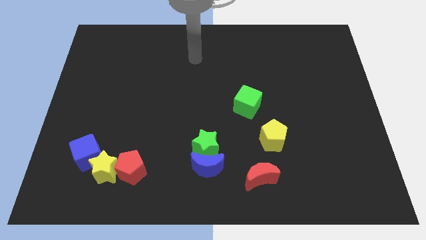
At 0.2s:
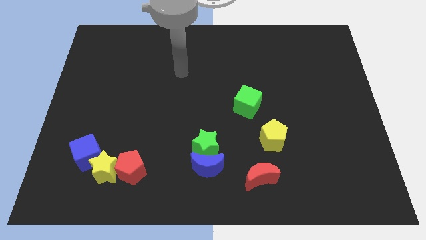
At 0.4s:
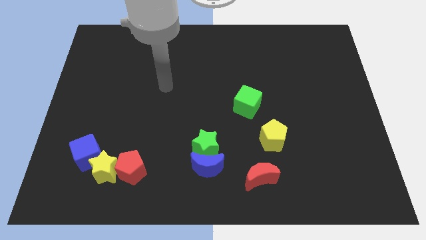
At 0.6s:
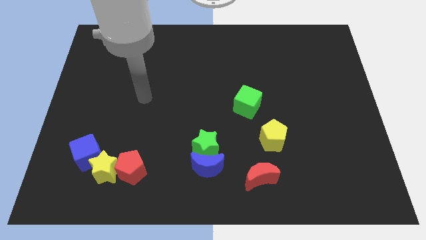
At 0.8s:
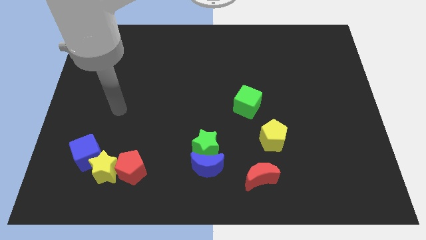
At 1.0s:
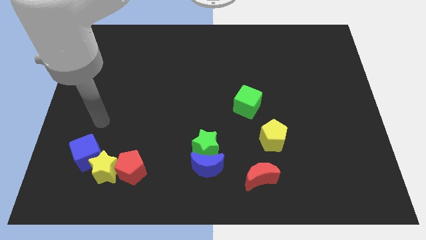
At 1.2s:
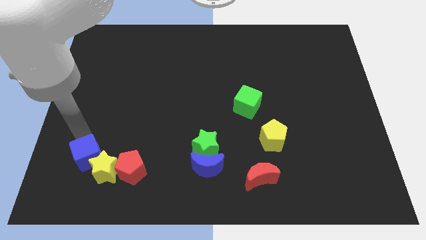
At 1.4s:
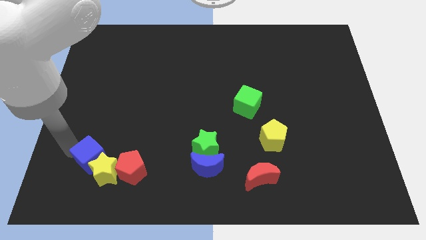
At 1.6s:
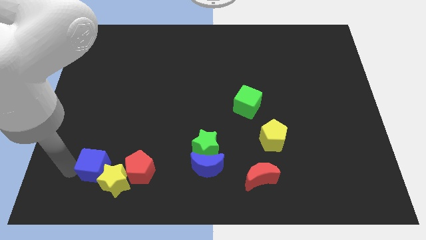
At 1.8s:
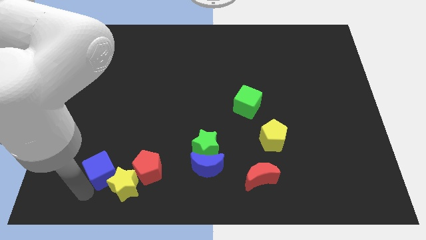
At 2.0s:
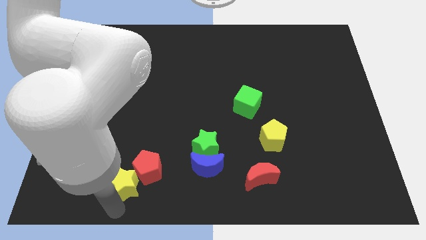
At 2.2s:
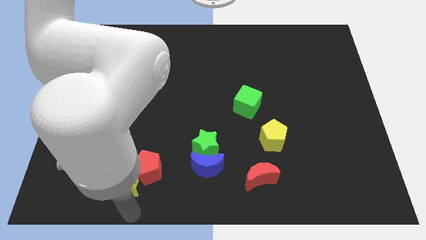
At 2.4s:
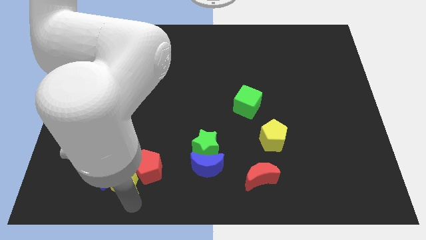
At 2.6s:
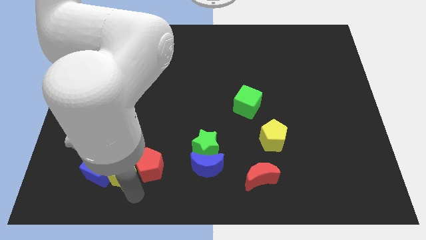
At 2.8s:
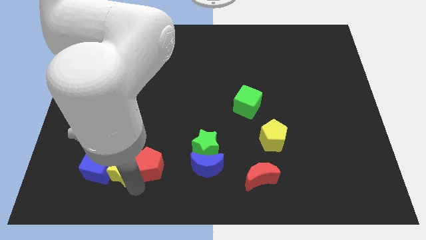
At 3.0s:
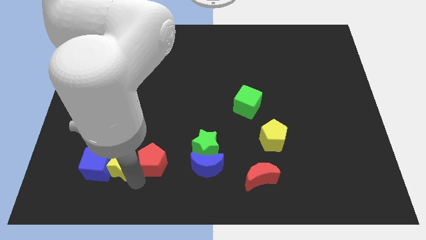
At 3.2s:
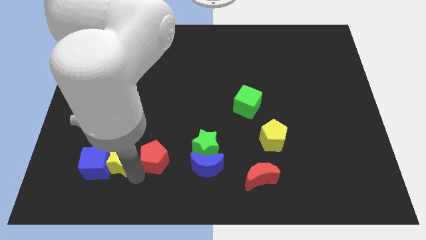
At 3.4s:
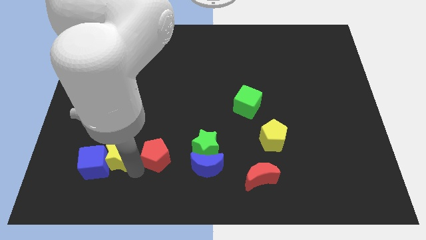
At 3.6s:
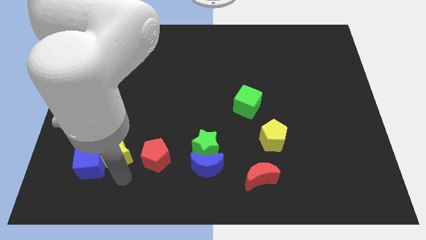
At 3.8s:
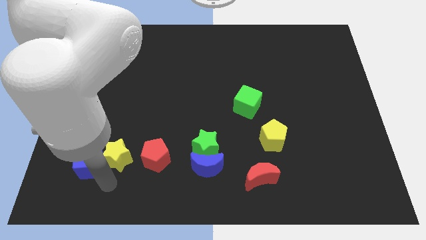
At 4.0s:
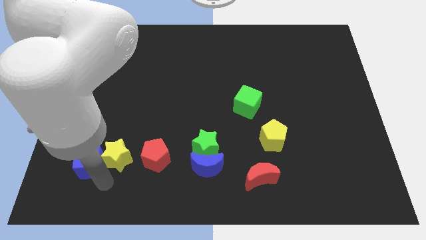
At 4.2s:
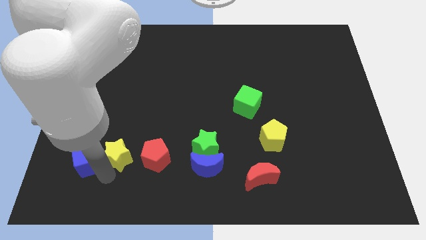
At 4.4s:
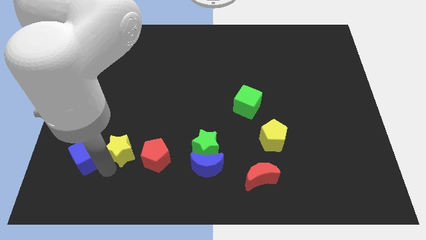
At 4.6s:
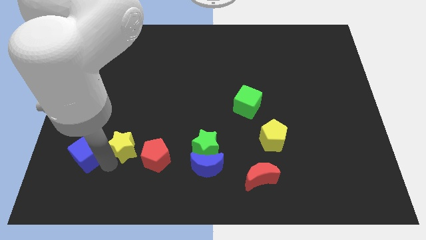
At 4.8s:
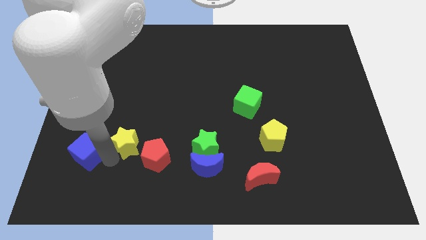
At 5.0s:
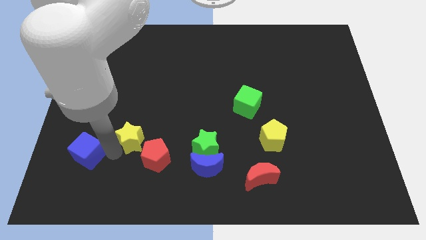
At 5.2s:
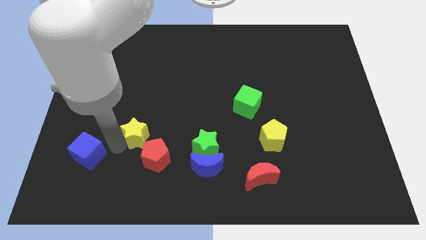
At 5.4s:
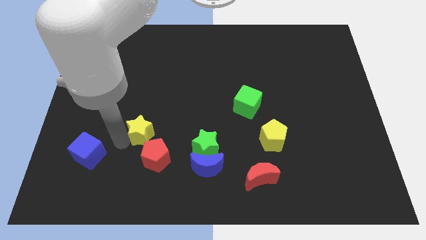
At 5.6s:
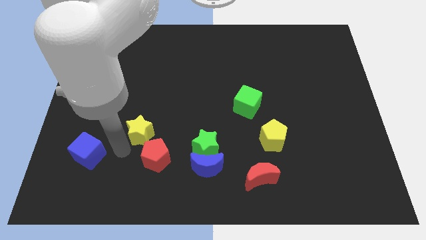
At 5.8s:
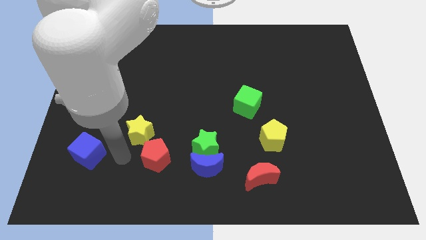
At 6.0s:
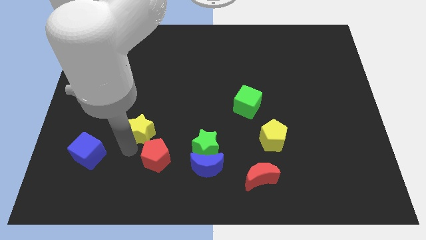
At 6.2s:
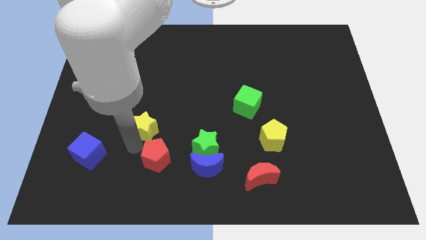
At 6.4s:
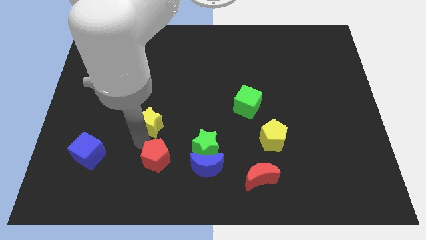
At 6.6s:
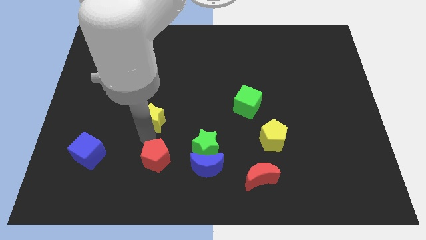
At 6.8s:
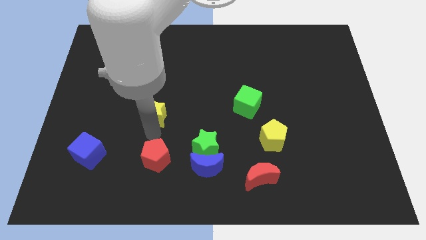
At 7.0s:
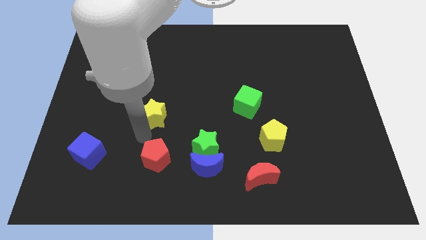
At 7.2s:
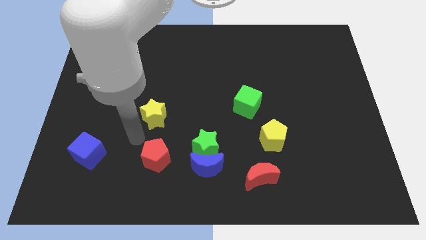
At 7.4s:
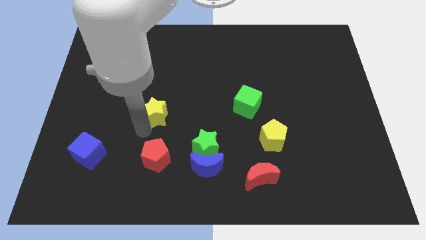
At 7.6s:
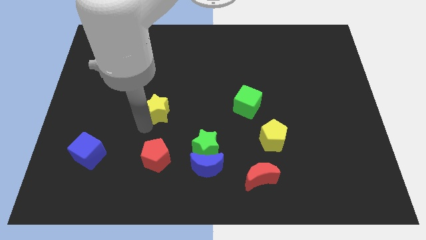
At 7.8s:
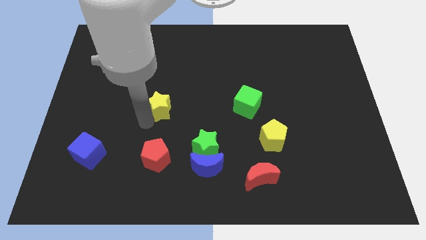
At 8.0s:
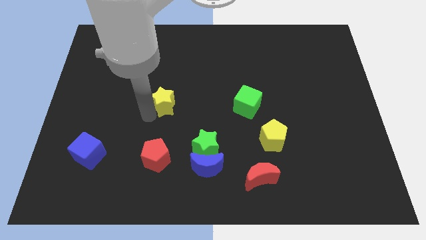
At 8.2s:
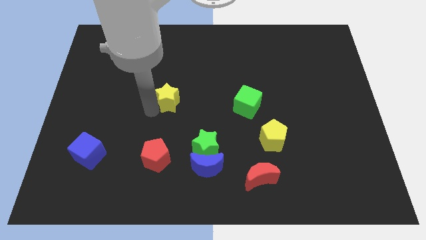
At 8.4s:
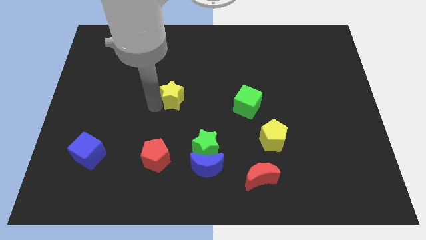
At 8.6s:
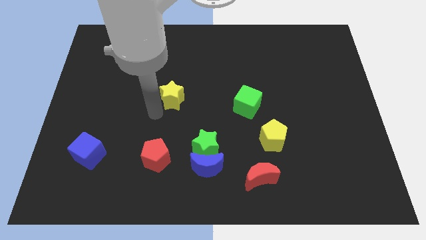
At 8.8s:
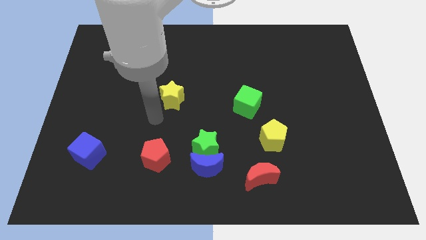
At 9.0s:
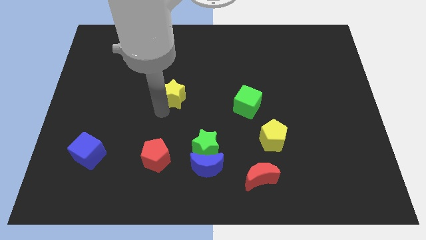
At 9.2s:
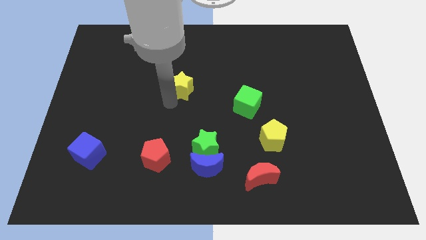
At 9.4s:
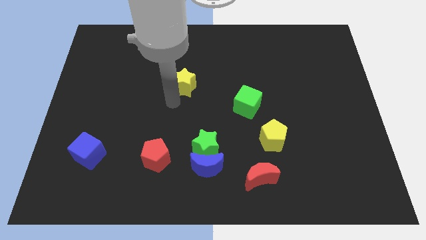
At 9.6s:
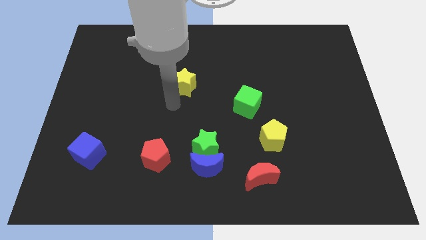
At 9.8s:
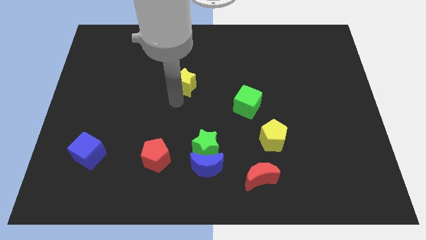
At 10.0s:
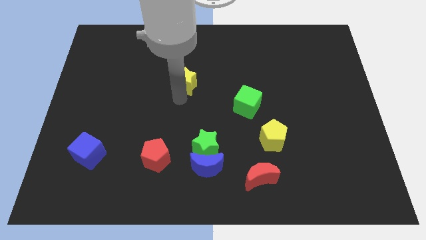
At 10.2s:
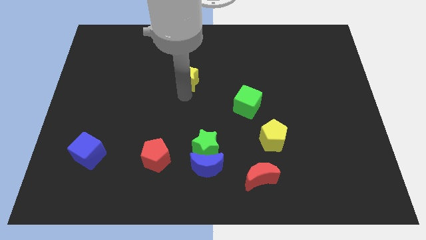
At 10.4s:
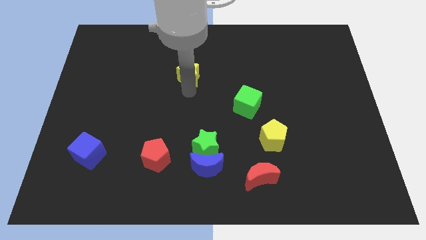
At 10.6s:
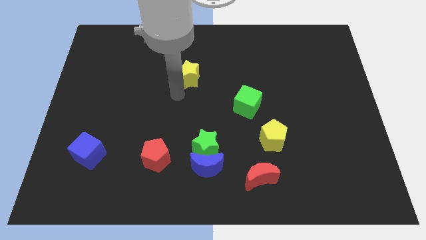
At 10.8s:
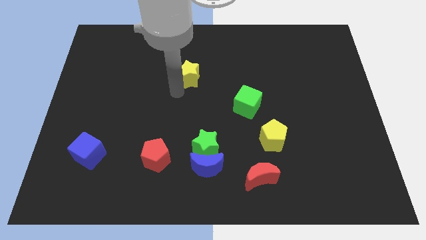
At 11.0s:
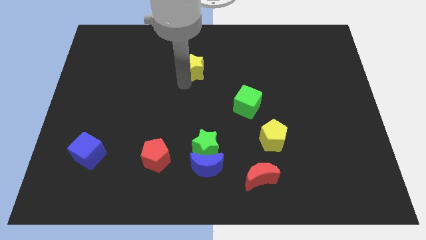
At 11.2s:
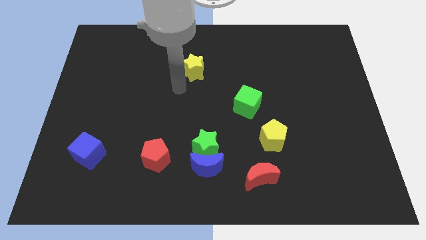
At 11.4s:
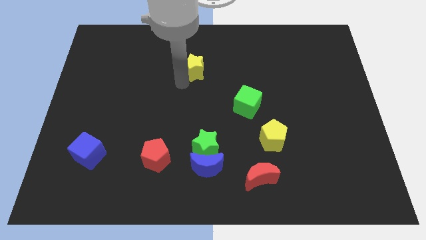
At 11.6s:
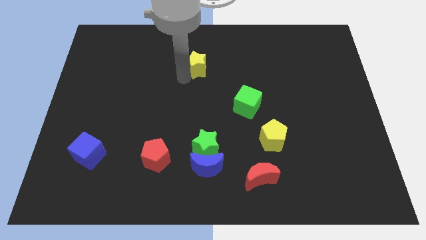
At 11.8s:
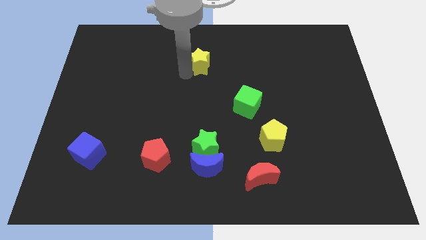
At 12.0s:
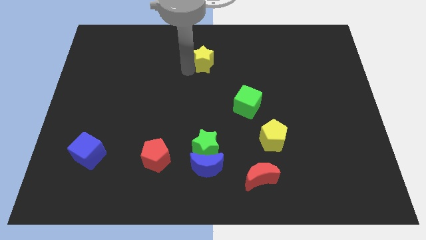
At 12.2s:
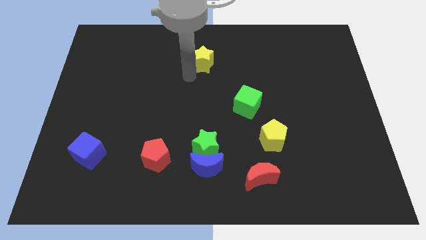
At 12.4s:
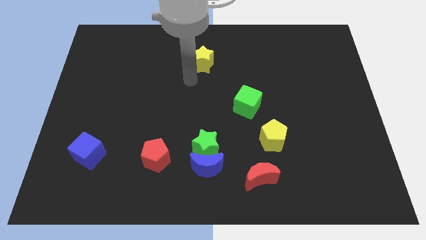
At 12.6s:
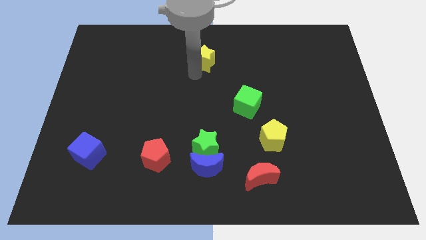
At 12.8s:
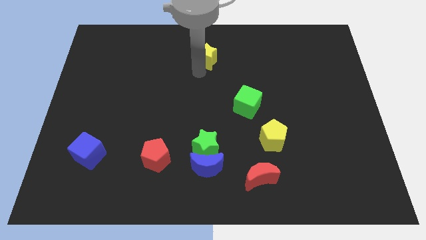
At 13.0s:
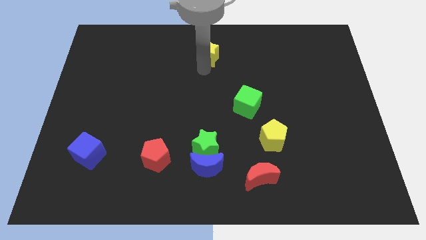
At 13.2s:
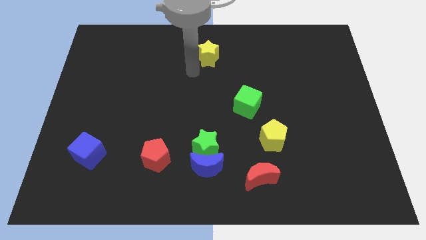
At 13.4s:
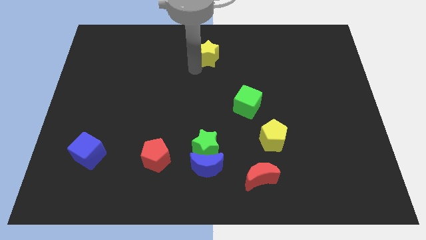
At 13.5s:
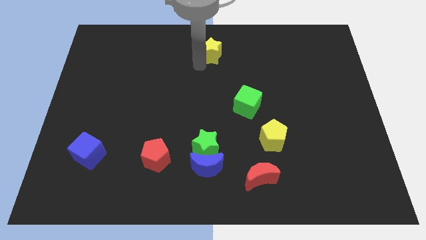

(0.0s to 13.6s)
slide the yellow star to the towards your base
